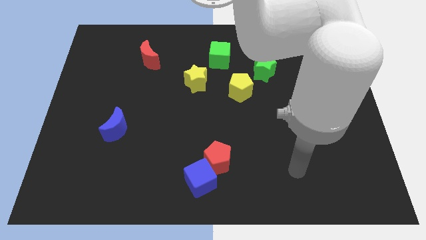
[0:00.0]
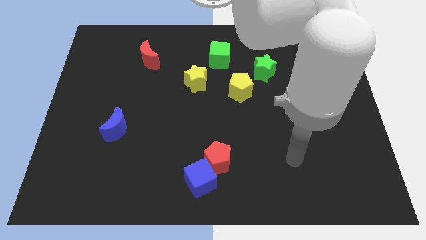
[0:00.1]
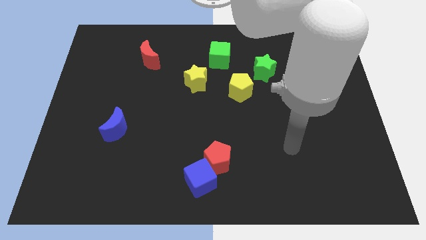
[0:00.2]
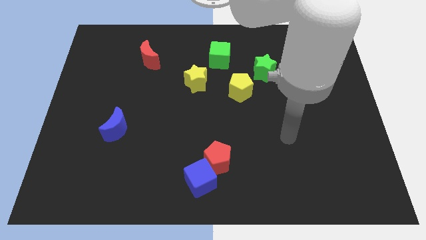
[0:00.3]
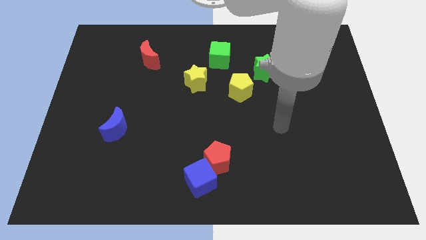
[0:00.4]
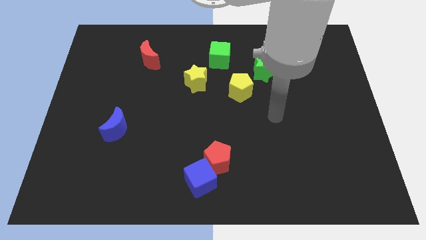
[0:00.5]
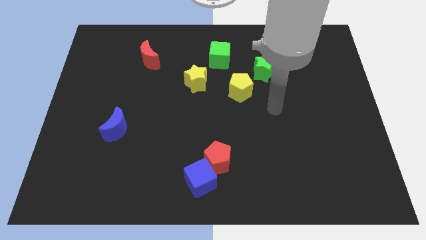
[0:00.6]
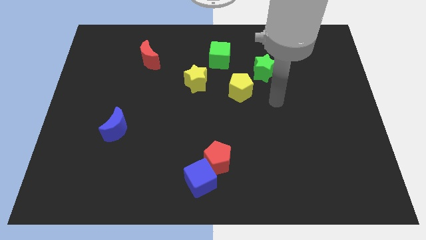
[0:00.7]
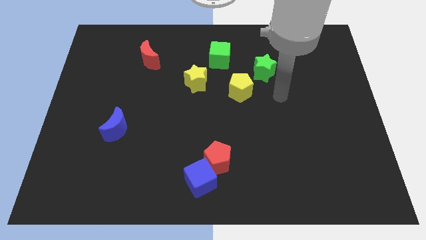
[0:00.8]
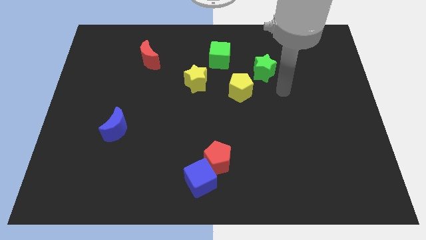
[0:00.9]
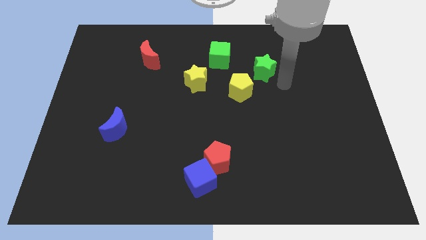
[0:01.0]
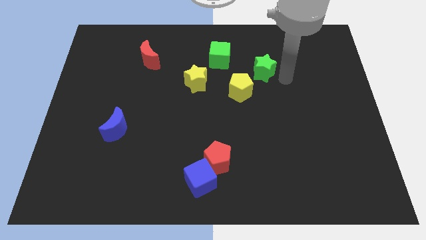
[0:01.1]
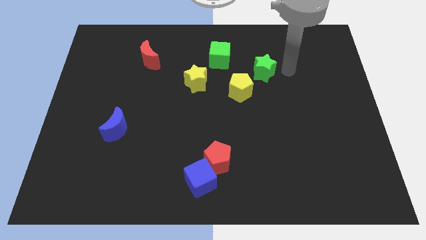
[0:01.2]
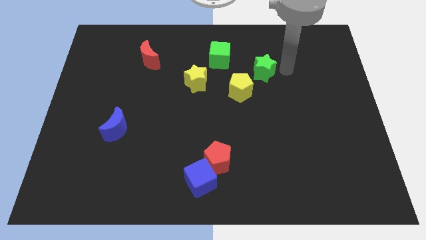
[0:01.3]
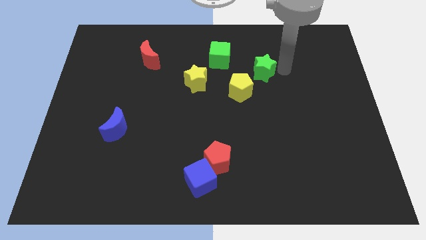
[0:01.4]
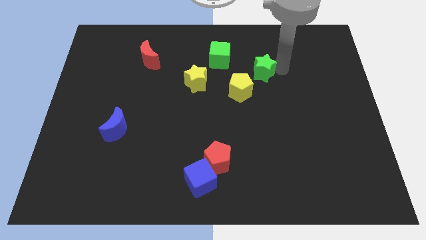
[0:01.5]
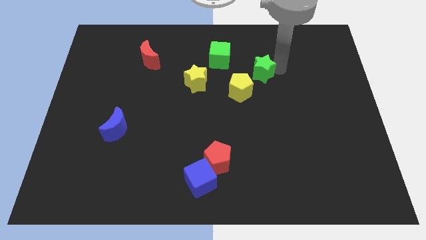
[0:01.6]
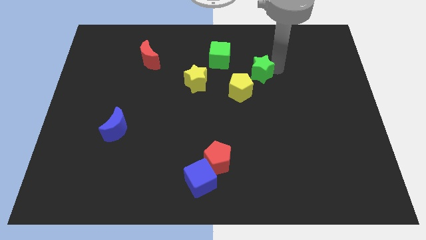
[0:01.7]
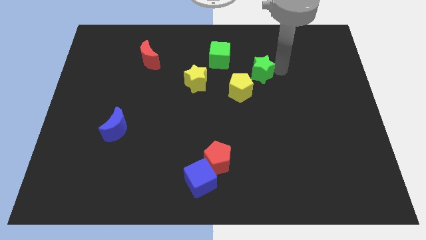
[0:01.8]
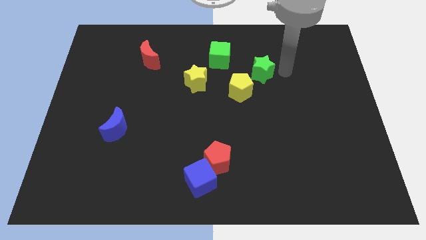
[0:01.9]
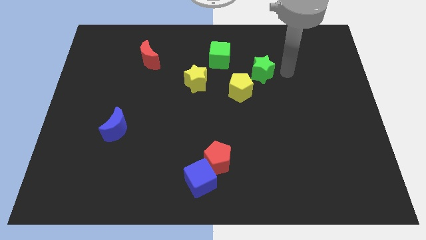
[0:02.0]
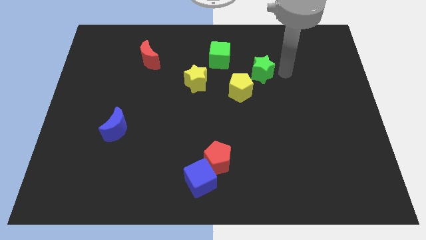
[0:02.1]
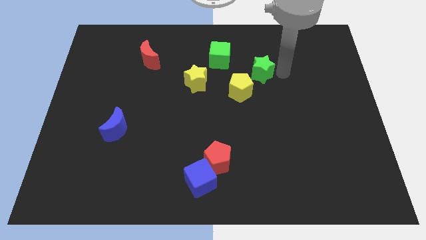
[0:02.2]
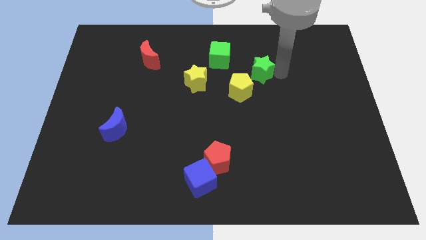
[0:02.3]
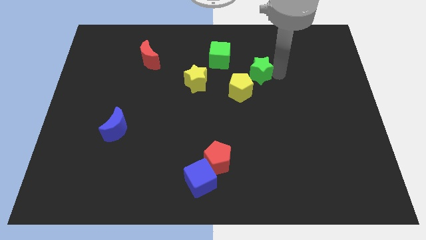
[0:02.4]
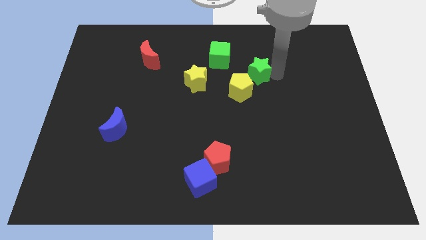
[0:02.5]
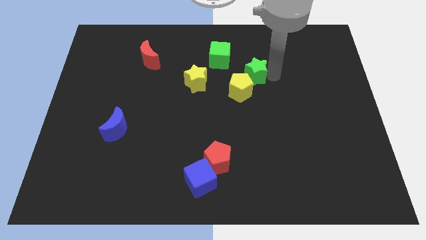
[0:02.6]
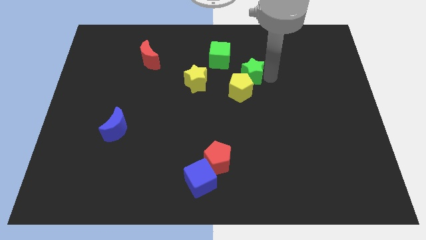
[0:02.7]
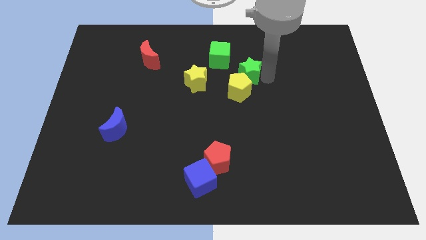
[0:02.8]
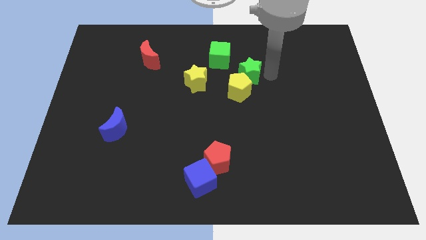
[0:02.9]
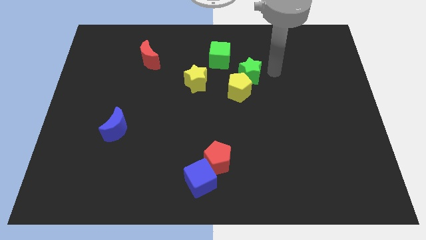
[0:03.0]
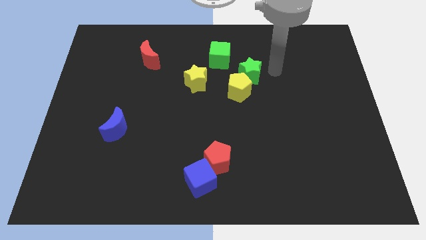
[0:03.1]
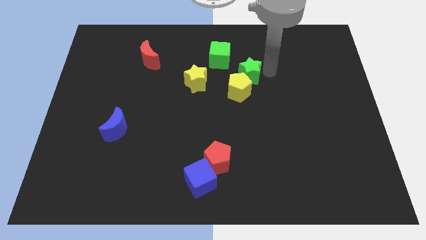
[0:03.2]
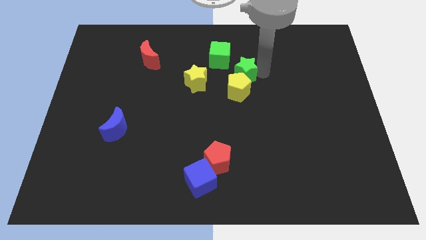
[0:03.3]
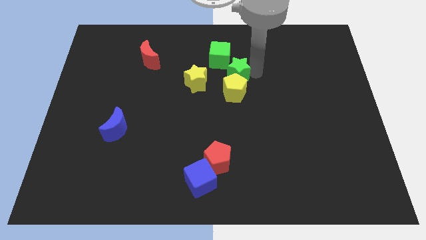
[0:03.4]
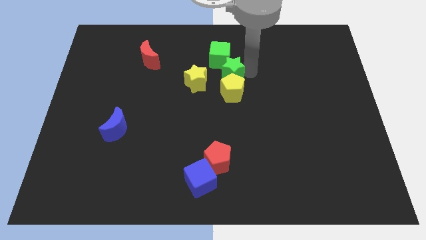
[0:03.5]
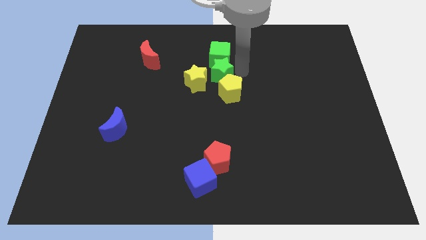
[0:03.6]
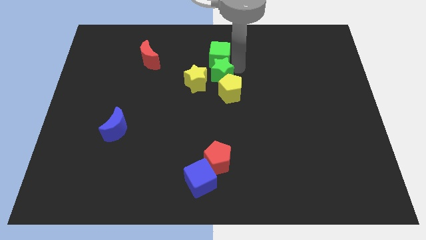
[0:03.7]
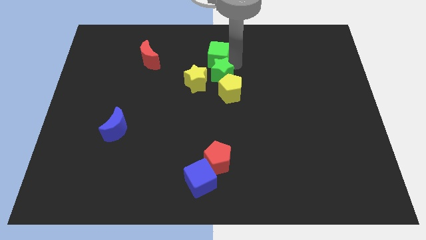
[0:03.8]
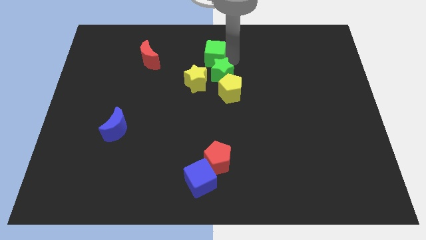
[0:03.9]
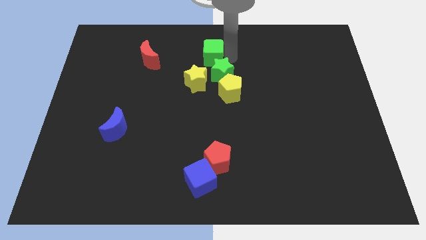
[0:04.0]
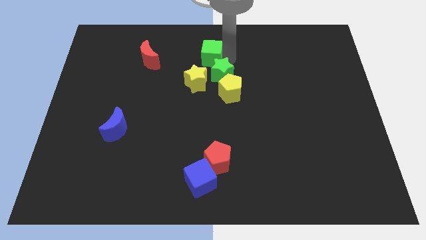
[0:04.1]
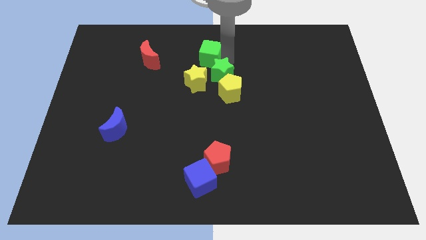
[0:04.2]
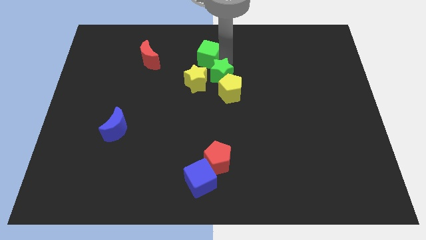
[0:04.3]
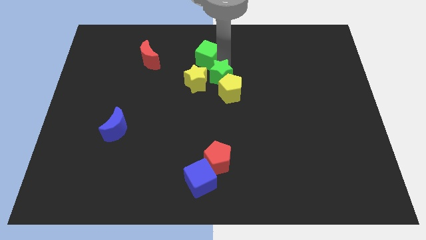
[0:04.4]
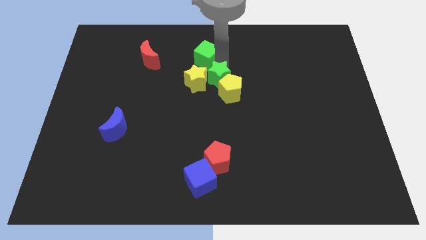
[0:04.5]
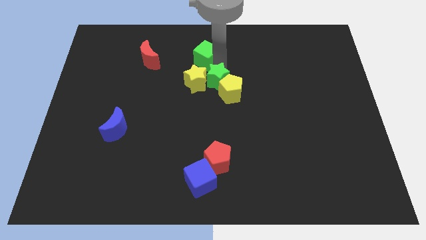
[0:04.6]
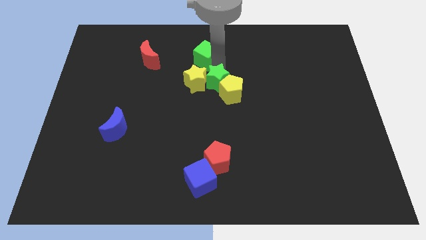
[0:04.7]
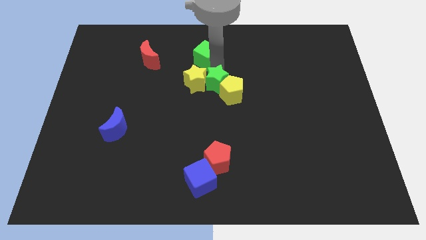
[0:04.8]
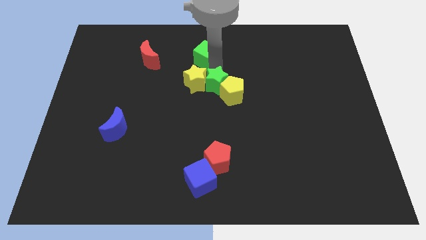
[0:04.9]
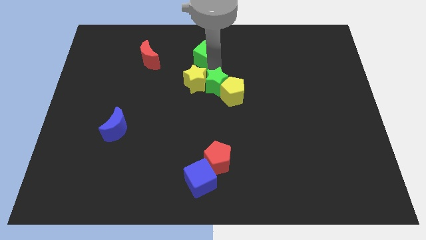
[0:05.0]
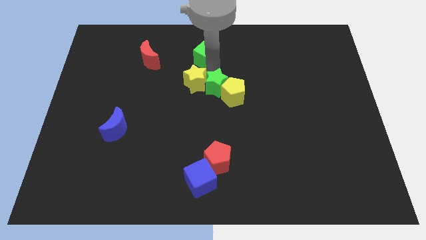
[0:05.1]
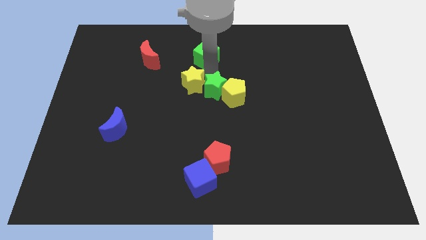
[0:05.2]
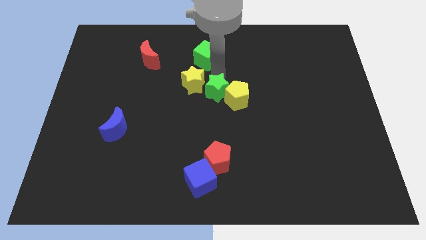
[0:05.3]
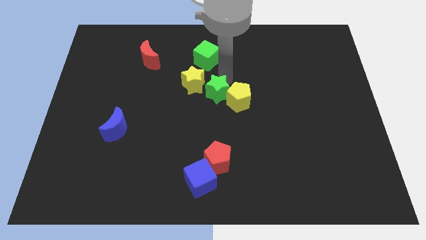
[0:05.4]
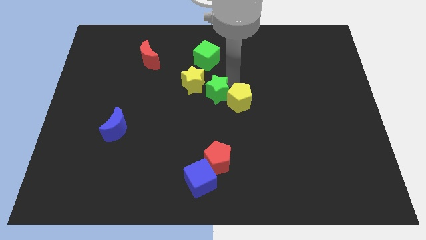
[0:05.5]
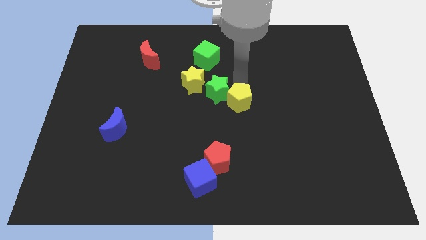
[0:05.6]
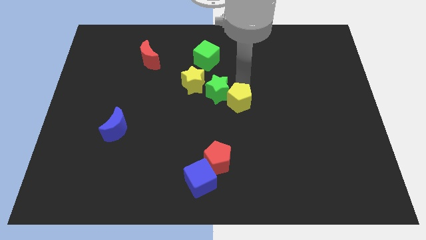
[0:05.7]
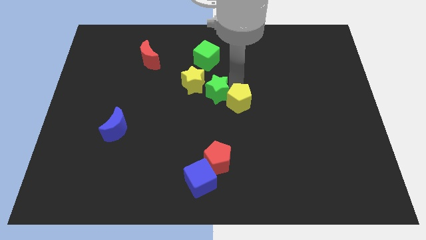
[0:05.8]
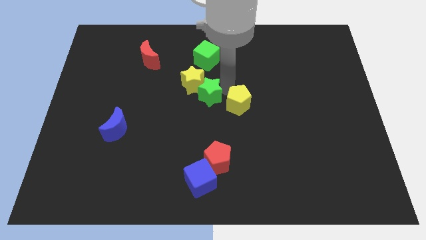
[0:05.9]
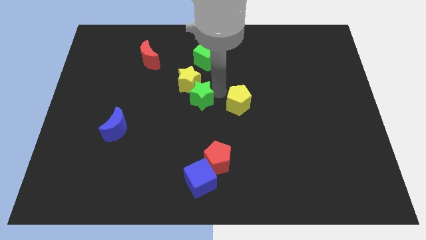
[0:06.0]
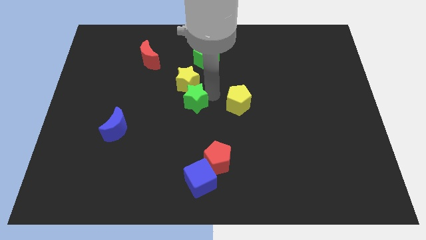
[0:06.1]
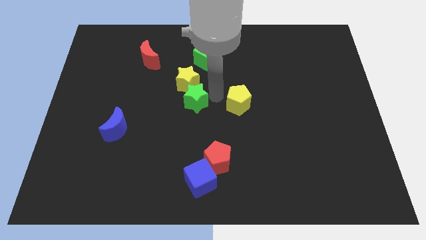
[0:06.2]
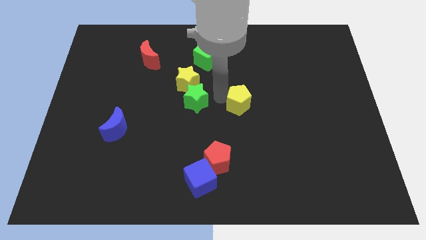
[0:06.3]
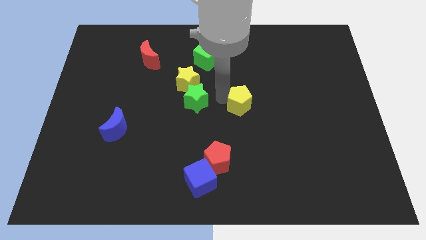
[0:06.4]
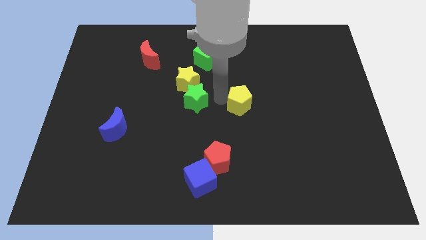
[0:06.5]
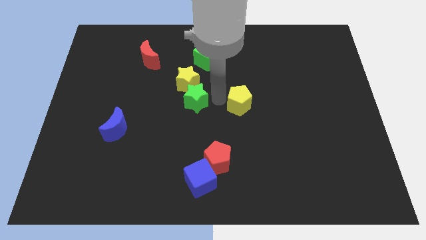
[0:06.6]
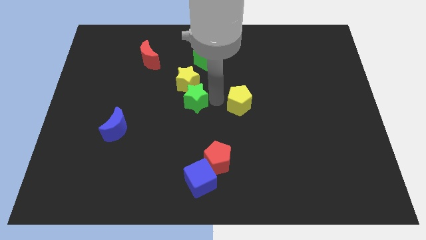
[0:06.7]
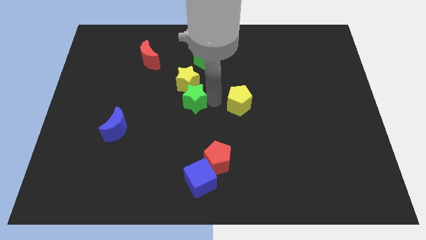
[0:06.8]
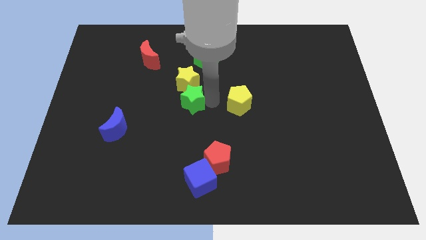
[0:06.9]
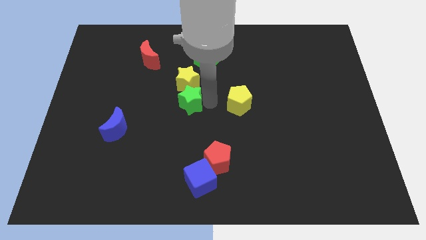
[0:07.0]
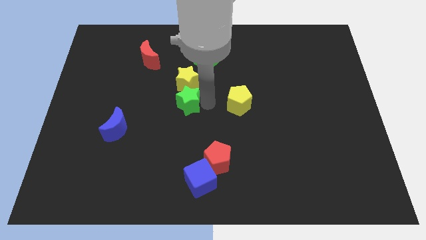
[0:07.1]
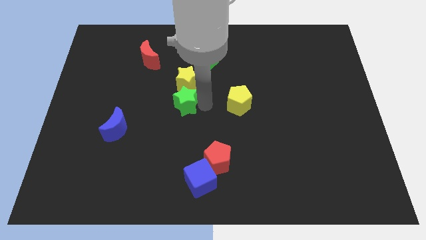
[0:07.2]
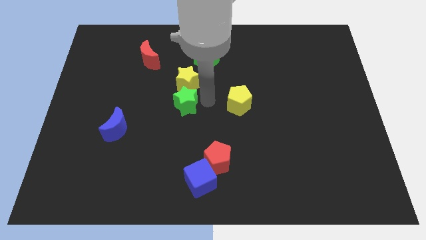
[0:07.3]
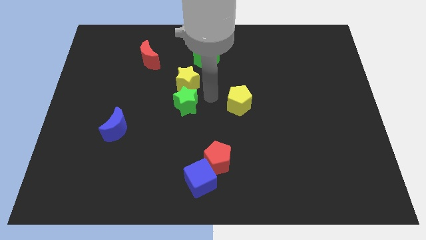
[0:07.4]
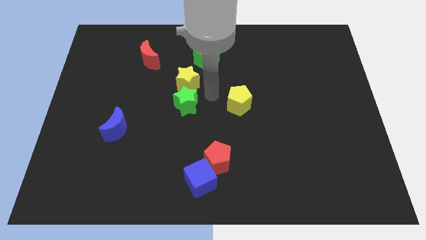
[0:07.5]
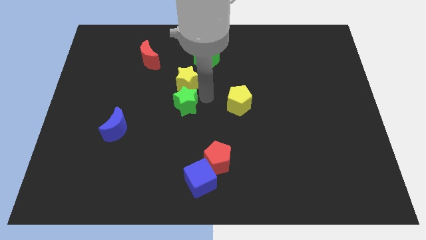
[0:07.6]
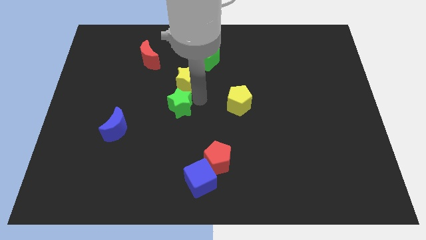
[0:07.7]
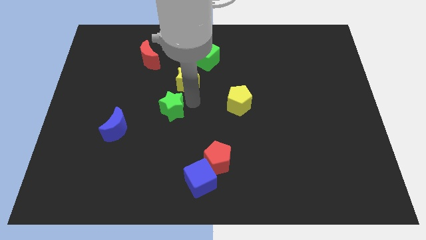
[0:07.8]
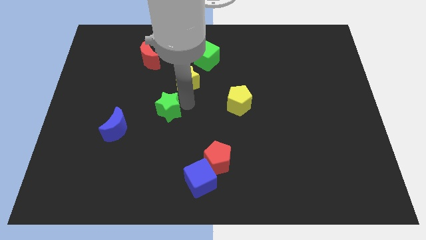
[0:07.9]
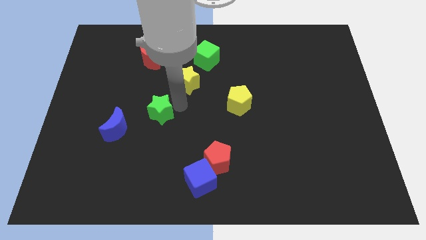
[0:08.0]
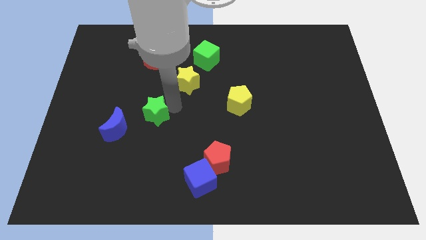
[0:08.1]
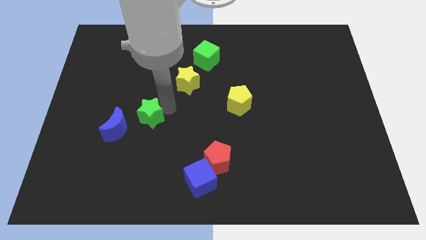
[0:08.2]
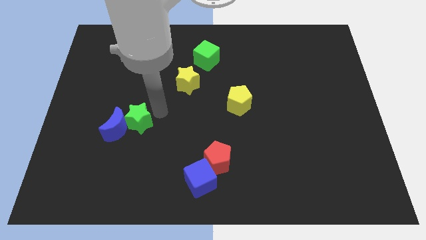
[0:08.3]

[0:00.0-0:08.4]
push the green star towards the blue moon
